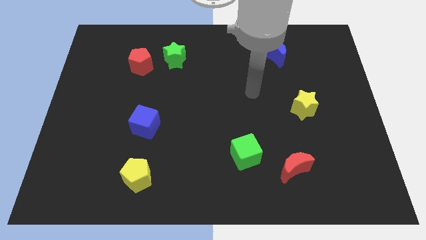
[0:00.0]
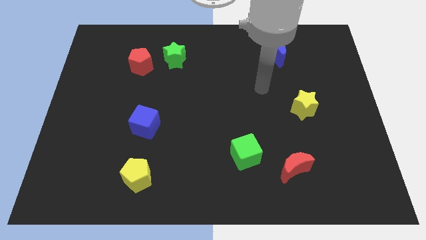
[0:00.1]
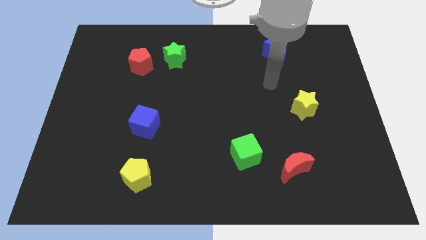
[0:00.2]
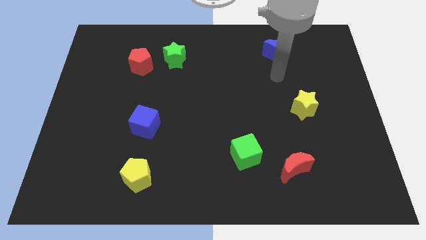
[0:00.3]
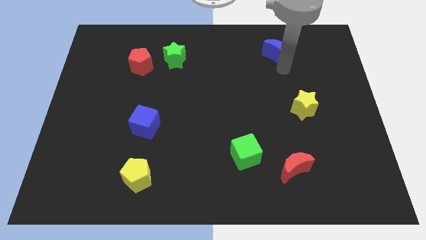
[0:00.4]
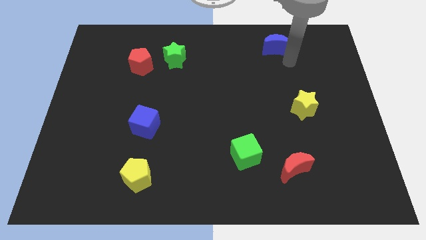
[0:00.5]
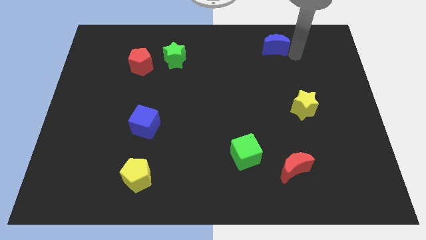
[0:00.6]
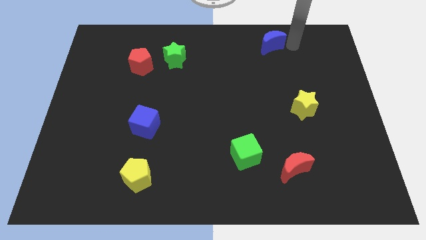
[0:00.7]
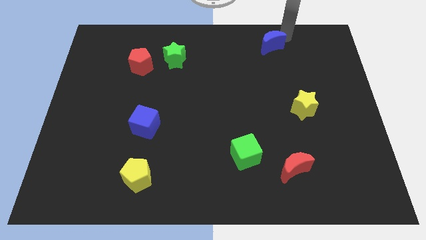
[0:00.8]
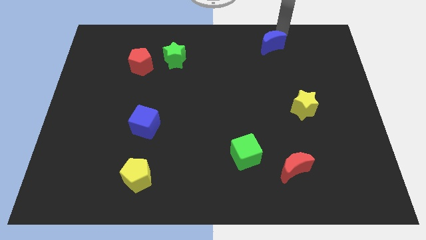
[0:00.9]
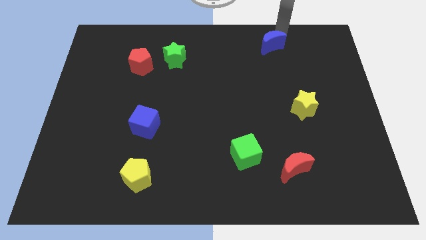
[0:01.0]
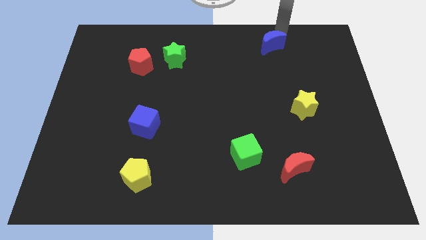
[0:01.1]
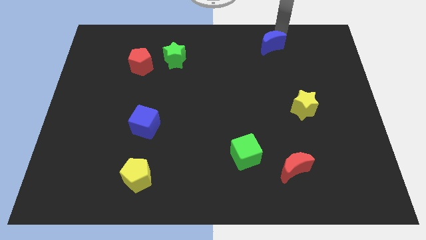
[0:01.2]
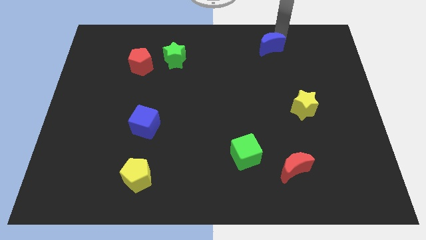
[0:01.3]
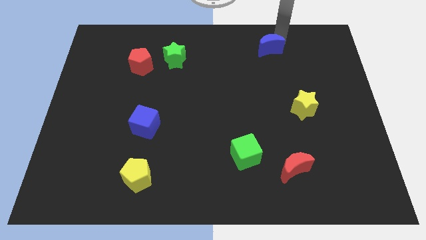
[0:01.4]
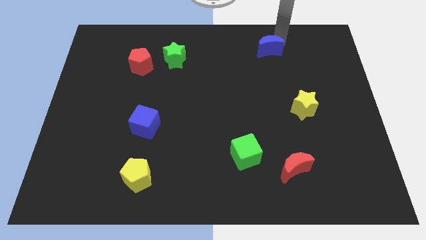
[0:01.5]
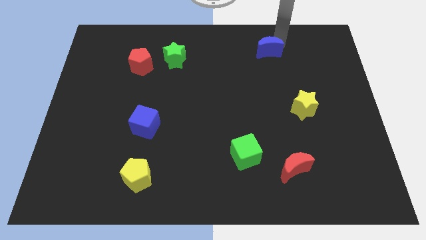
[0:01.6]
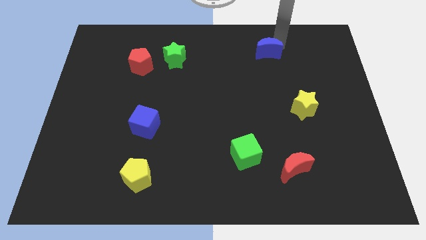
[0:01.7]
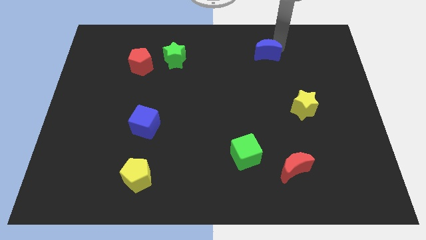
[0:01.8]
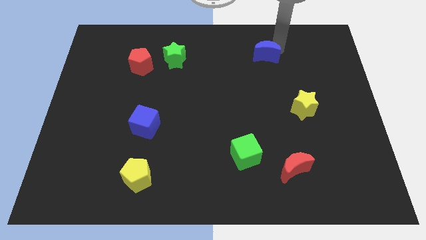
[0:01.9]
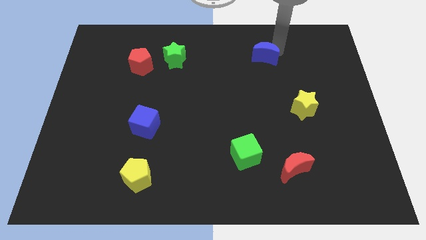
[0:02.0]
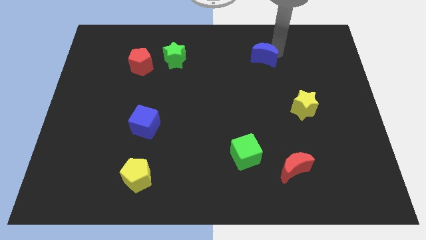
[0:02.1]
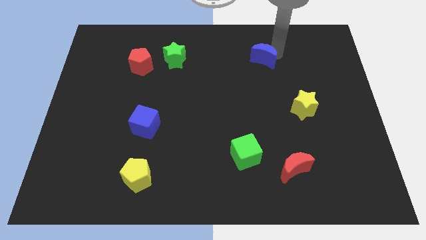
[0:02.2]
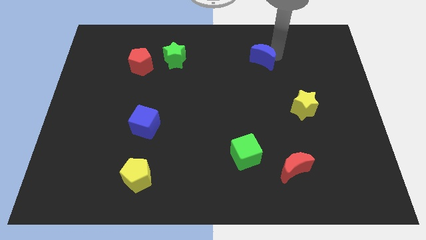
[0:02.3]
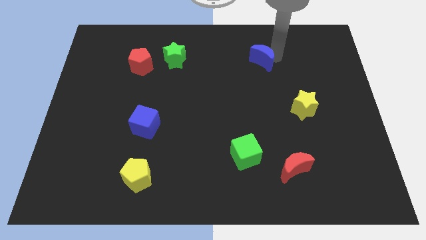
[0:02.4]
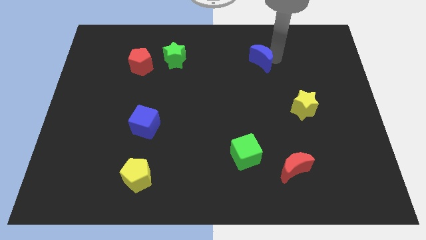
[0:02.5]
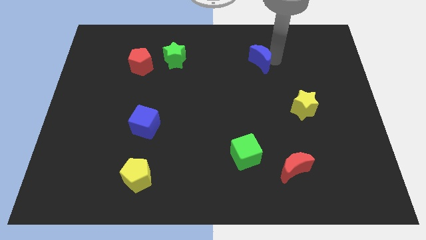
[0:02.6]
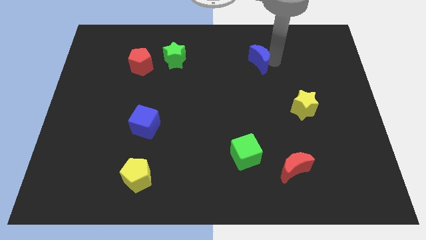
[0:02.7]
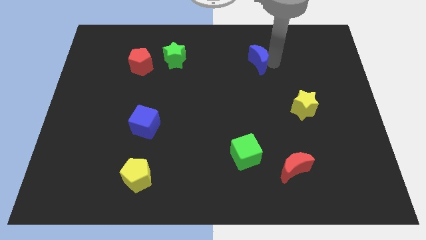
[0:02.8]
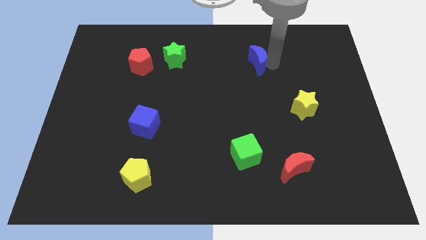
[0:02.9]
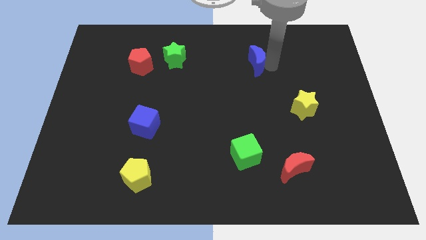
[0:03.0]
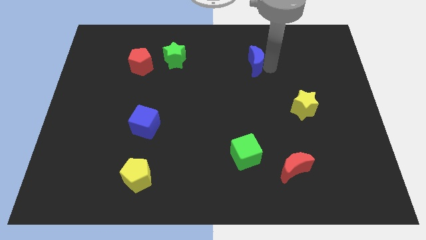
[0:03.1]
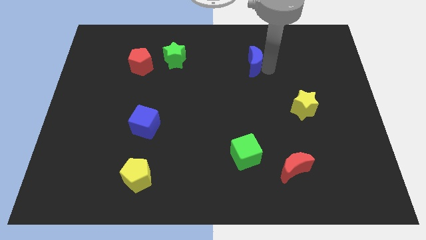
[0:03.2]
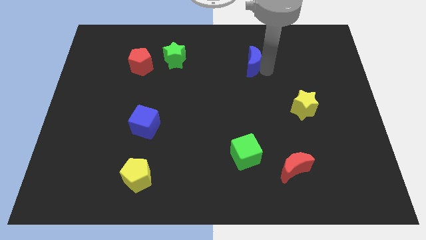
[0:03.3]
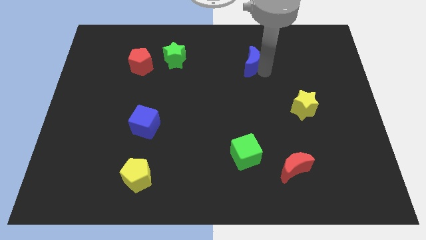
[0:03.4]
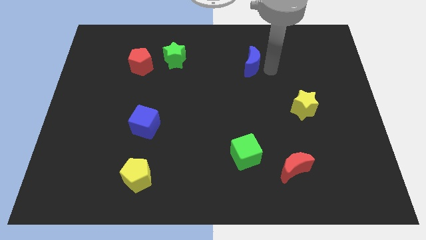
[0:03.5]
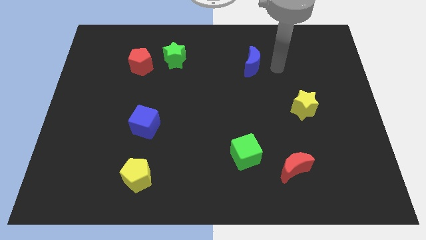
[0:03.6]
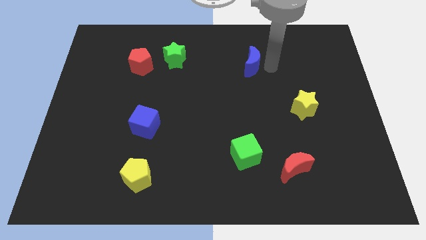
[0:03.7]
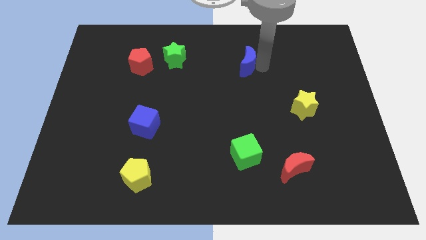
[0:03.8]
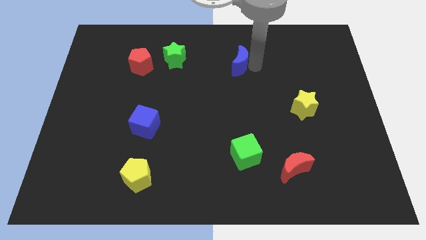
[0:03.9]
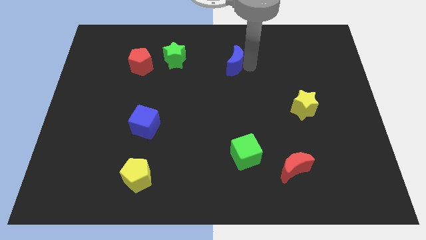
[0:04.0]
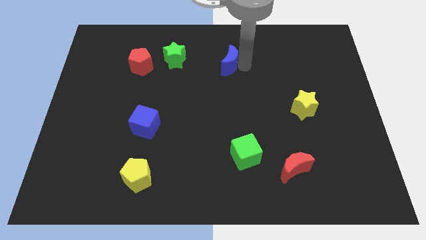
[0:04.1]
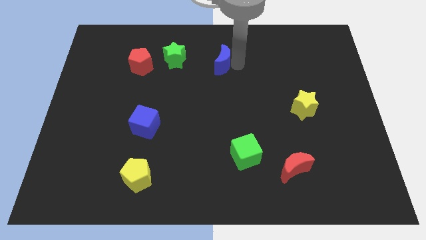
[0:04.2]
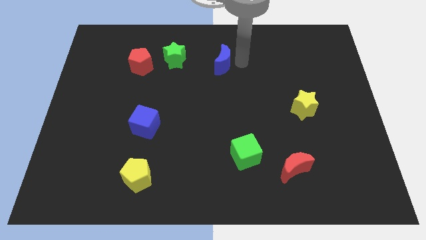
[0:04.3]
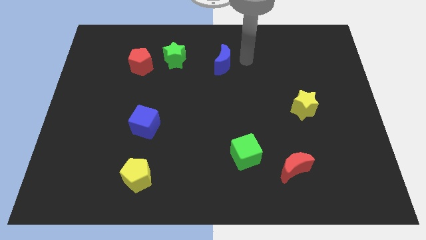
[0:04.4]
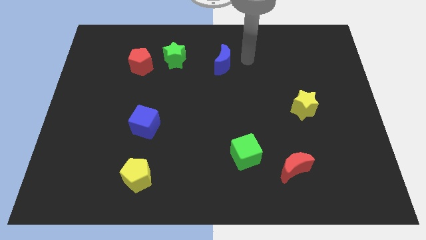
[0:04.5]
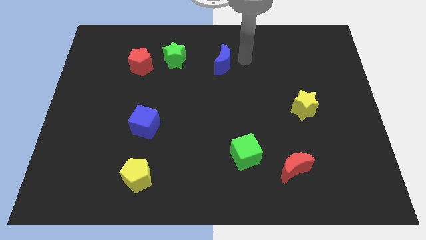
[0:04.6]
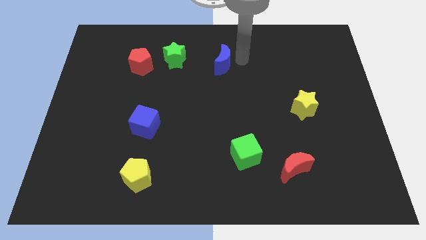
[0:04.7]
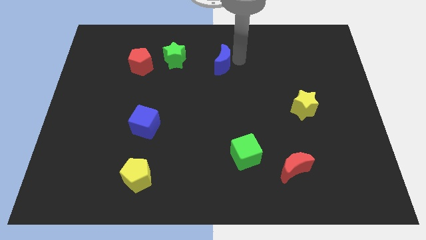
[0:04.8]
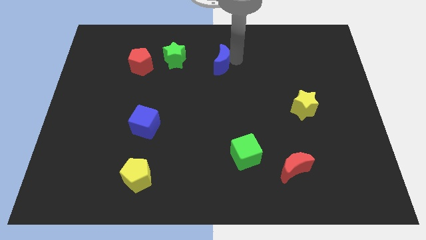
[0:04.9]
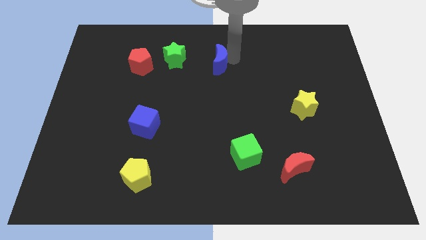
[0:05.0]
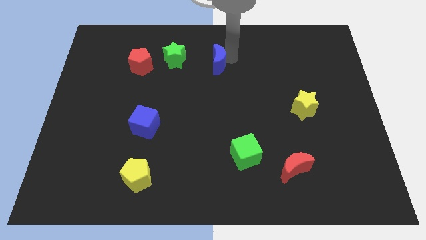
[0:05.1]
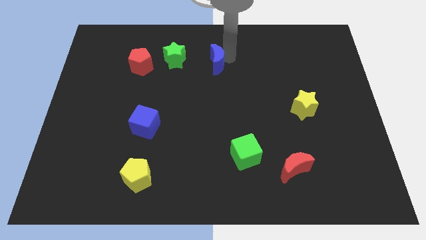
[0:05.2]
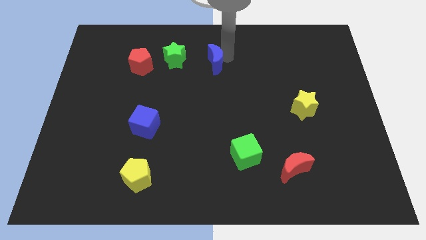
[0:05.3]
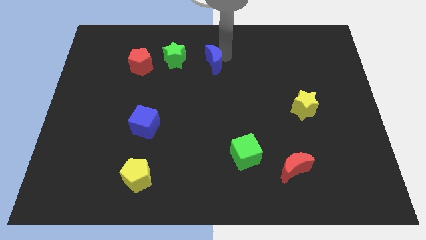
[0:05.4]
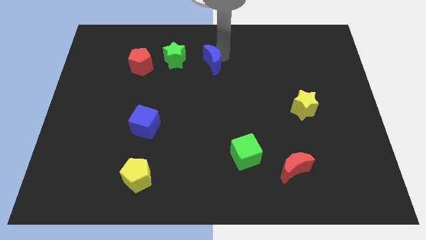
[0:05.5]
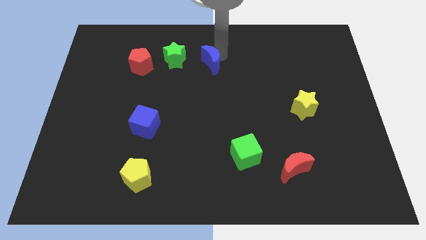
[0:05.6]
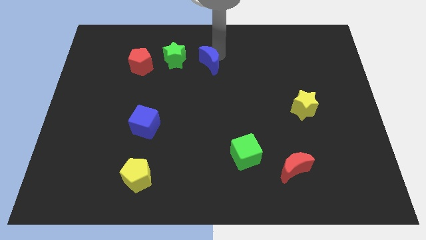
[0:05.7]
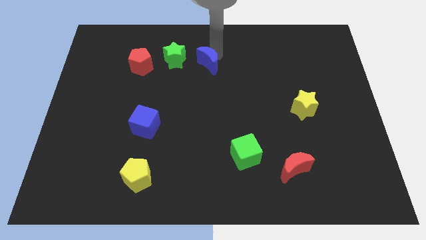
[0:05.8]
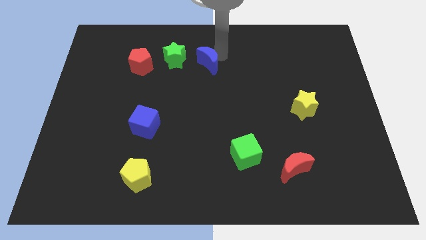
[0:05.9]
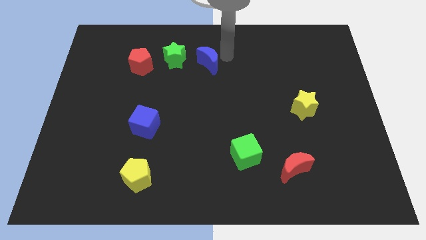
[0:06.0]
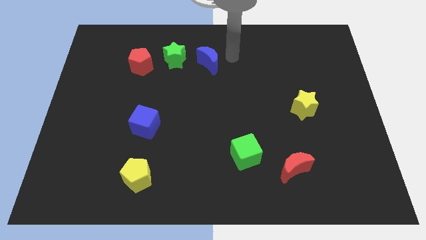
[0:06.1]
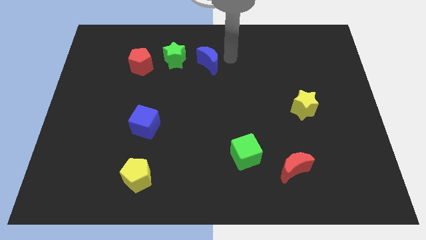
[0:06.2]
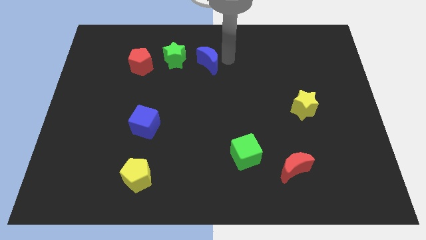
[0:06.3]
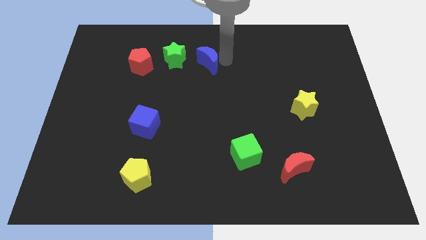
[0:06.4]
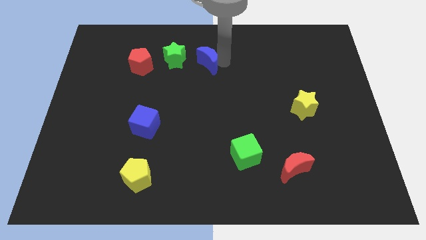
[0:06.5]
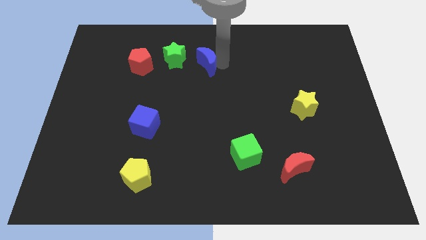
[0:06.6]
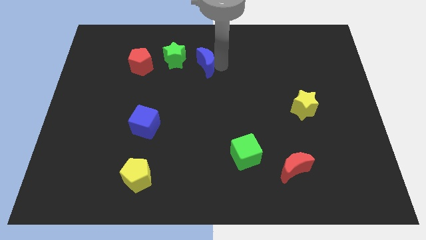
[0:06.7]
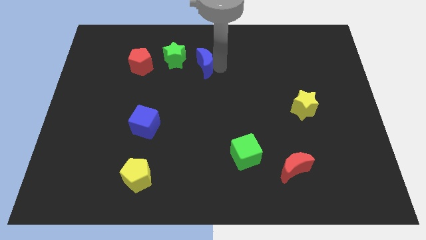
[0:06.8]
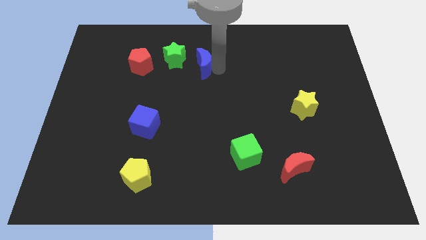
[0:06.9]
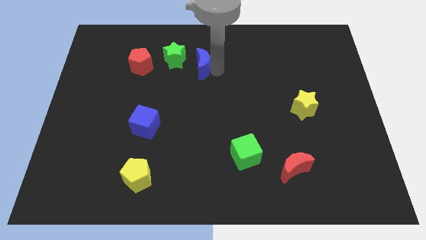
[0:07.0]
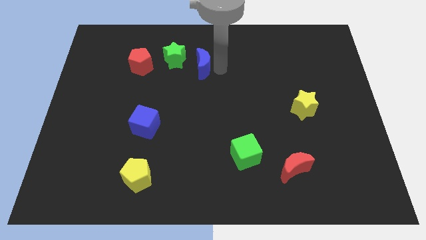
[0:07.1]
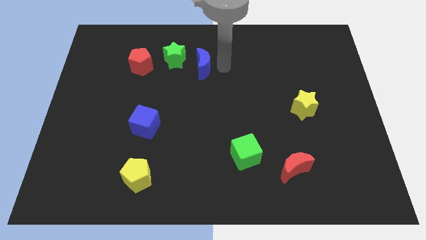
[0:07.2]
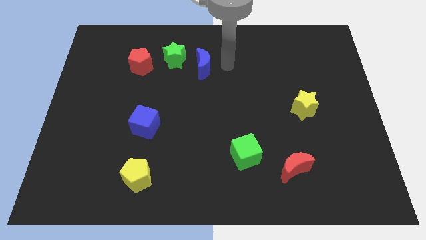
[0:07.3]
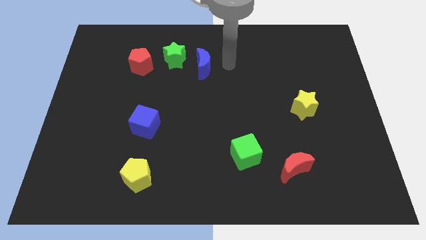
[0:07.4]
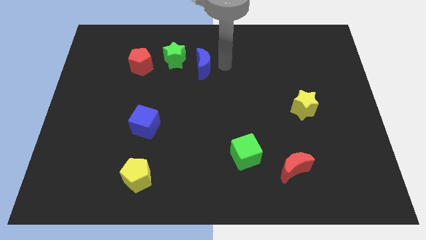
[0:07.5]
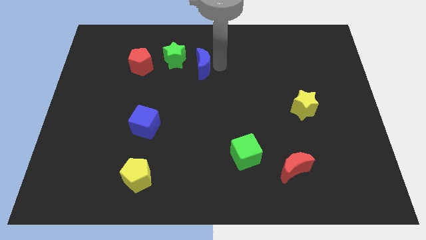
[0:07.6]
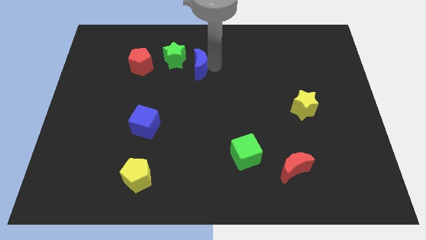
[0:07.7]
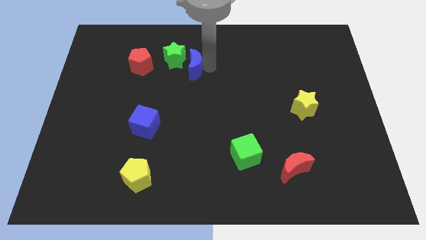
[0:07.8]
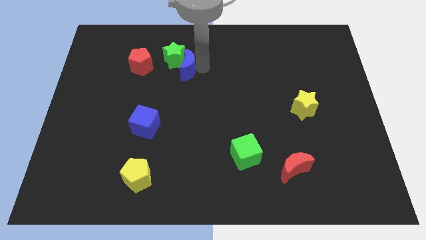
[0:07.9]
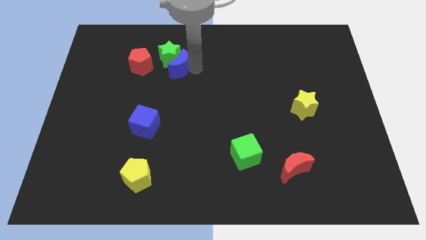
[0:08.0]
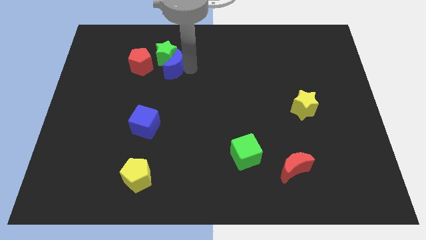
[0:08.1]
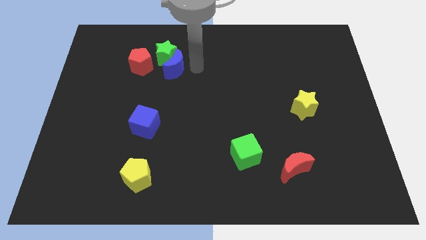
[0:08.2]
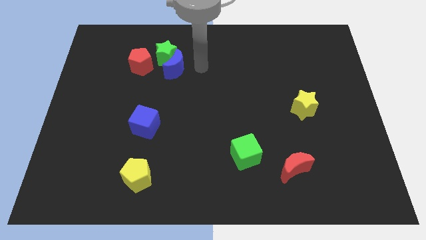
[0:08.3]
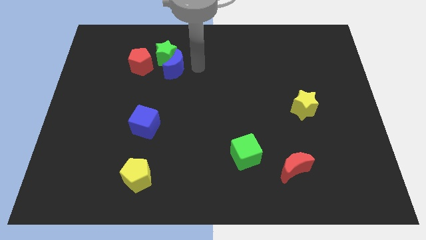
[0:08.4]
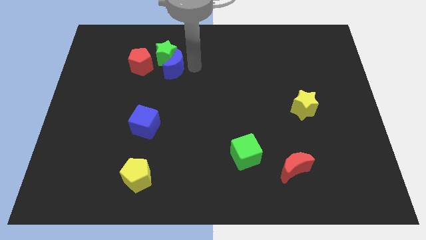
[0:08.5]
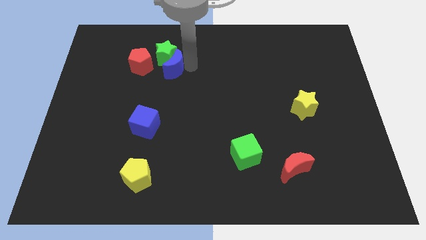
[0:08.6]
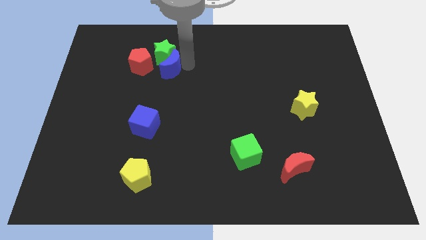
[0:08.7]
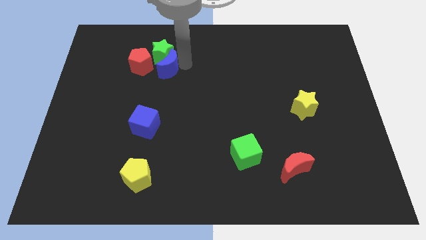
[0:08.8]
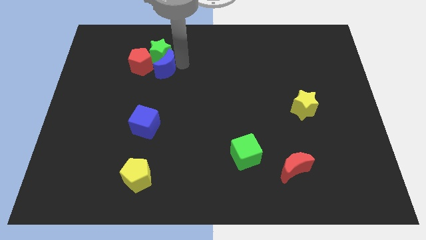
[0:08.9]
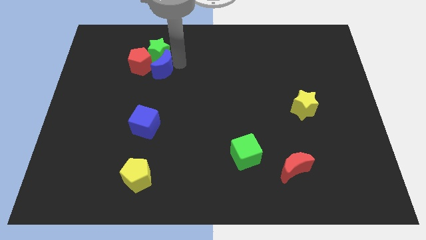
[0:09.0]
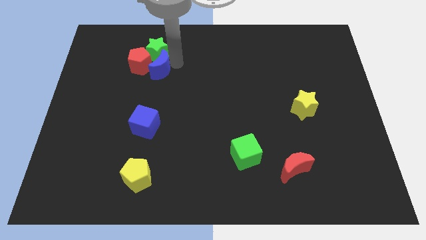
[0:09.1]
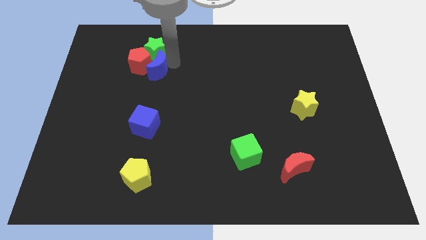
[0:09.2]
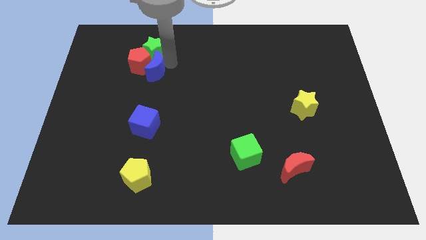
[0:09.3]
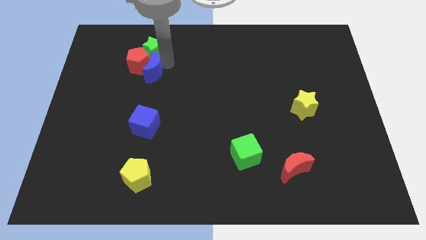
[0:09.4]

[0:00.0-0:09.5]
push the blue moon to the bottom left of the green star
